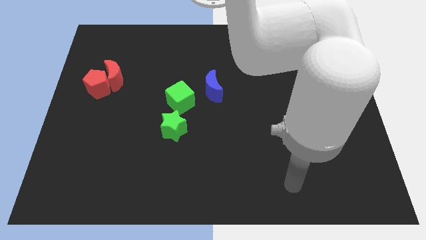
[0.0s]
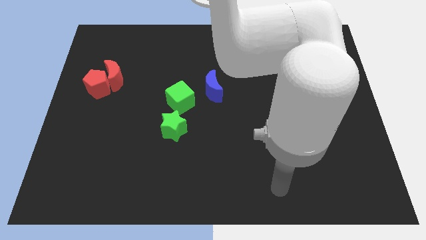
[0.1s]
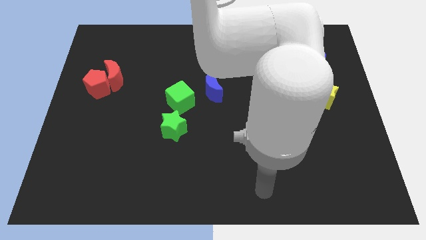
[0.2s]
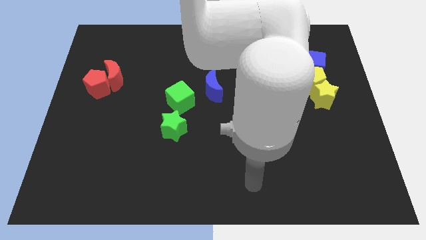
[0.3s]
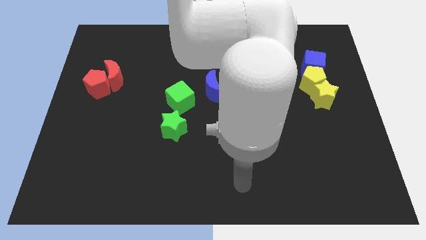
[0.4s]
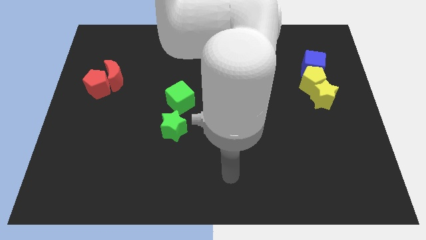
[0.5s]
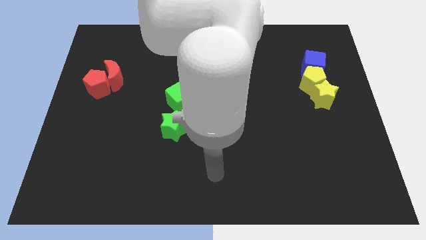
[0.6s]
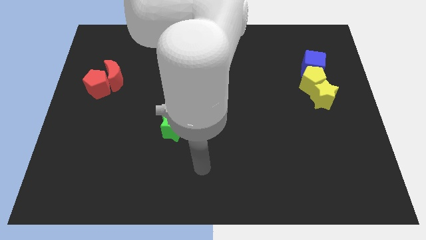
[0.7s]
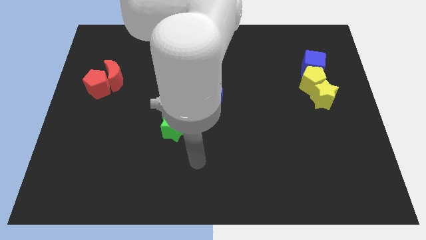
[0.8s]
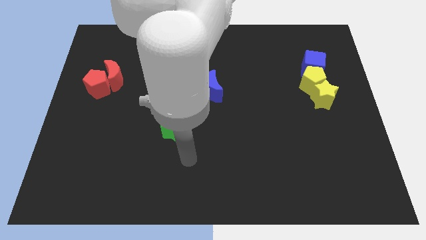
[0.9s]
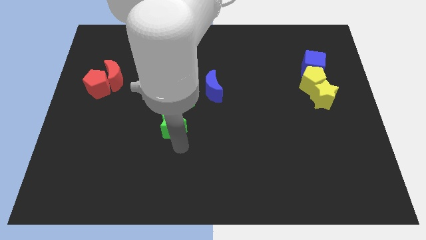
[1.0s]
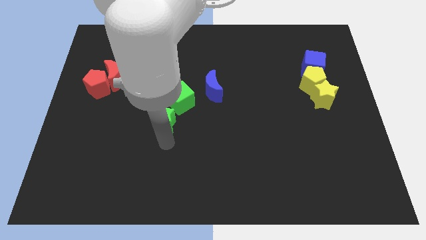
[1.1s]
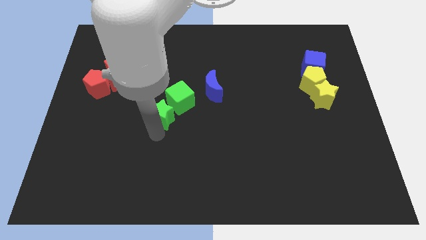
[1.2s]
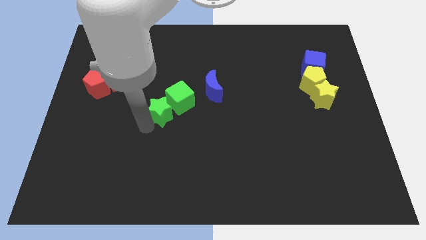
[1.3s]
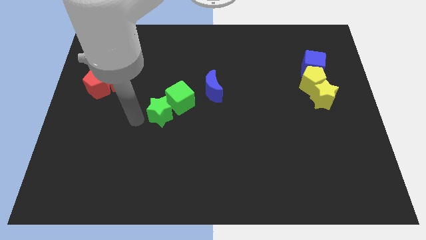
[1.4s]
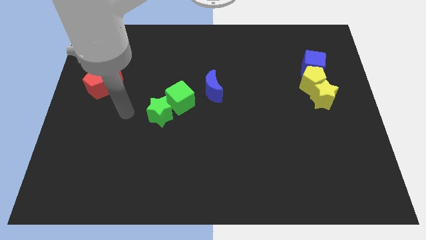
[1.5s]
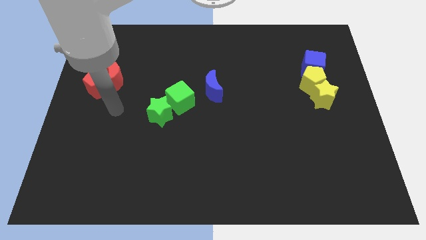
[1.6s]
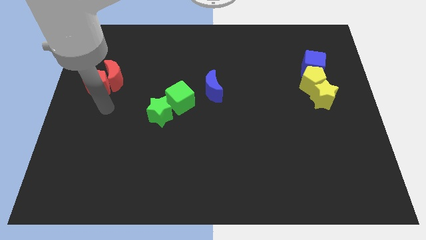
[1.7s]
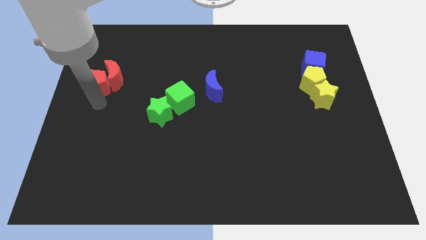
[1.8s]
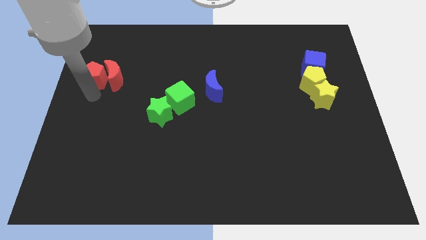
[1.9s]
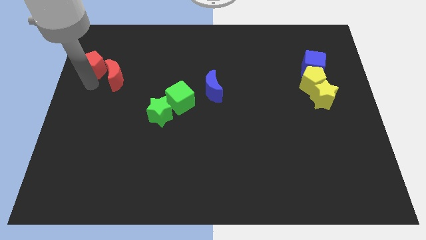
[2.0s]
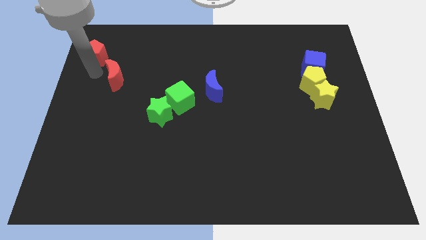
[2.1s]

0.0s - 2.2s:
separate the red moon from the red pentagon

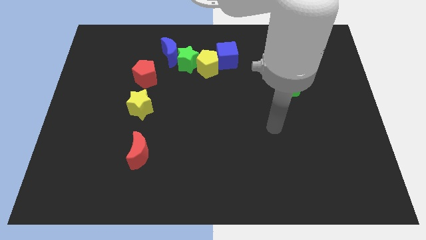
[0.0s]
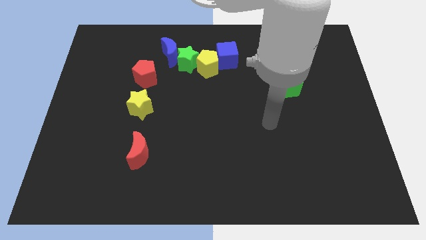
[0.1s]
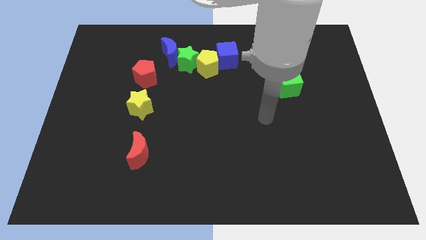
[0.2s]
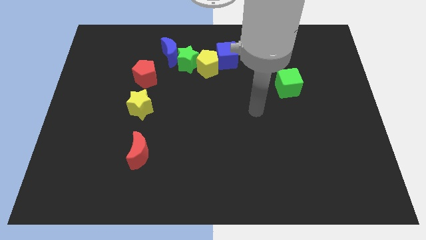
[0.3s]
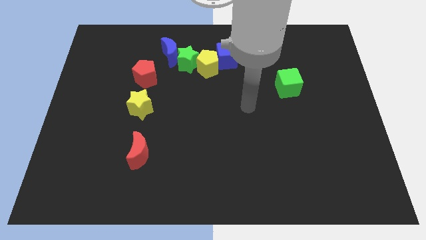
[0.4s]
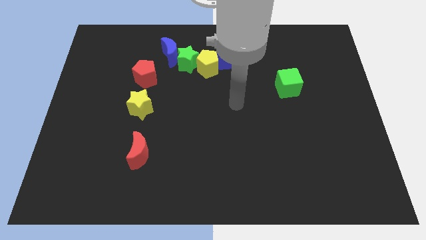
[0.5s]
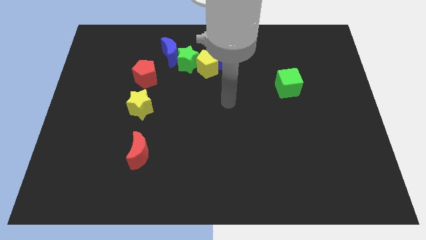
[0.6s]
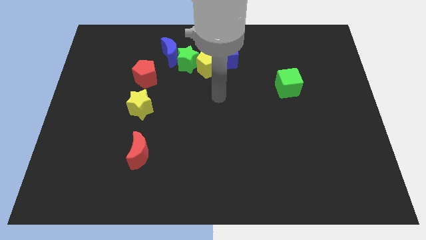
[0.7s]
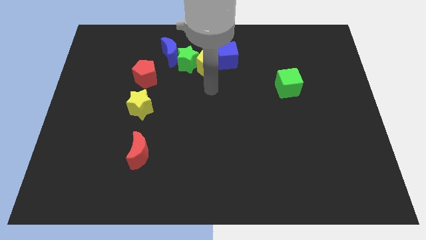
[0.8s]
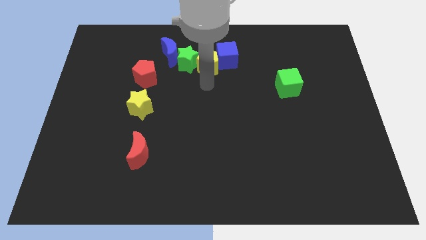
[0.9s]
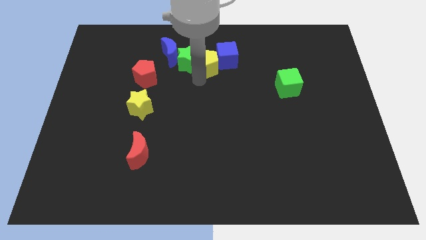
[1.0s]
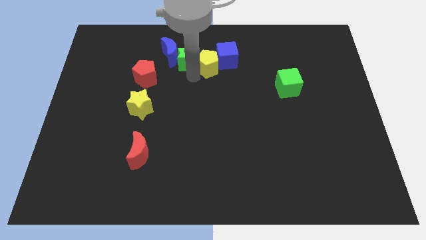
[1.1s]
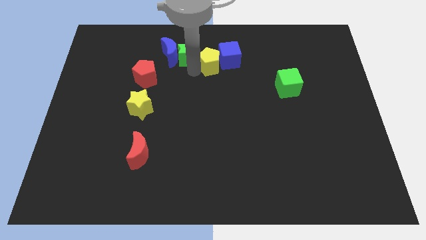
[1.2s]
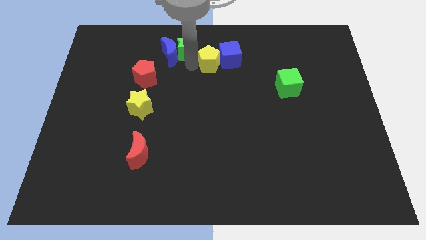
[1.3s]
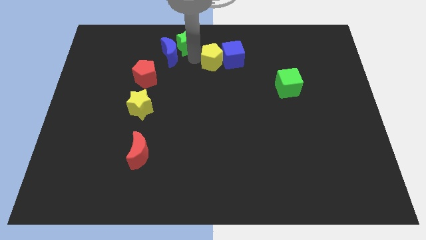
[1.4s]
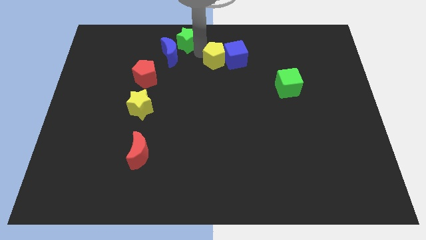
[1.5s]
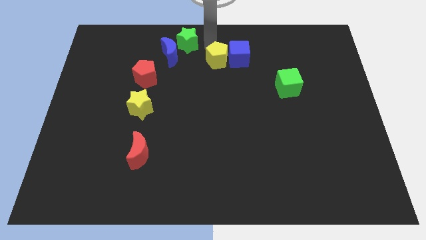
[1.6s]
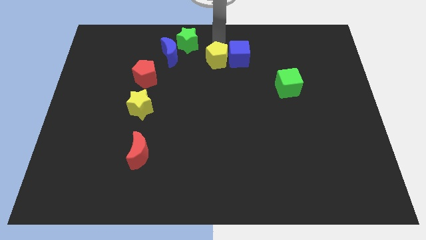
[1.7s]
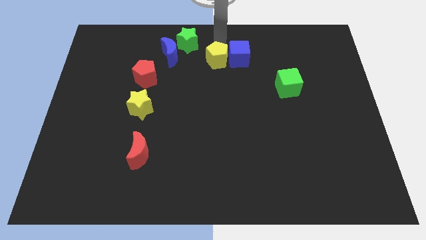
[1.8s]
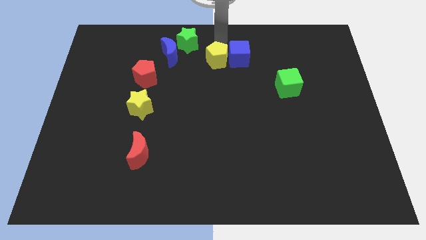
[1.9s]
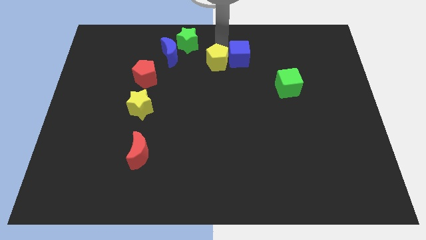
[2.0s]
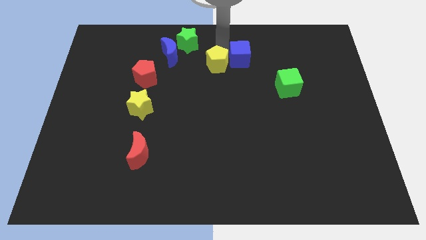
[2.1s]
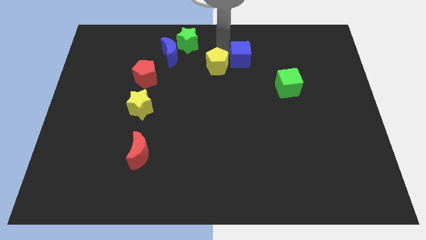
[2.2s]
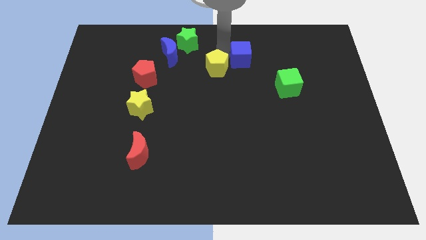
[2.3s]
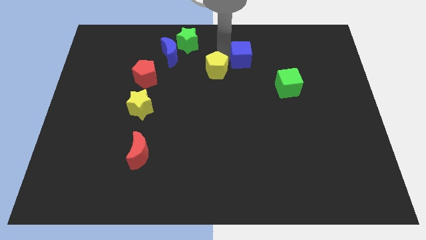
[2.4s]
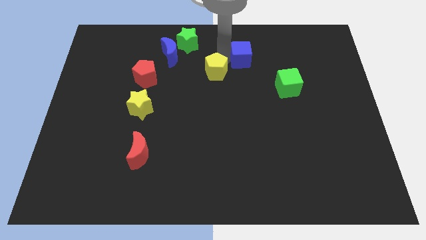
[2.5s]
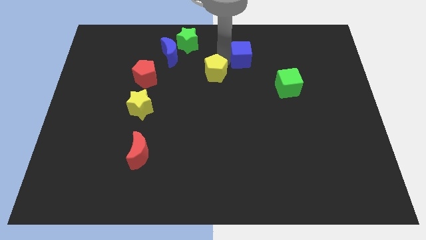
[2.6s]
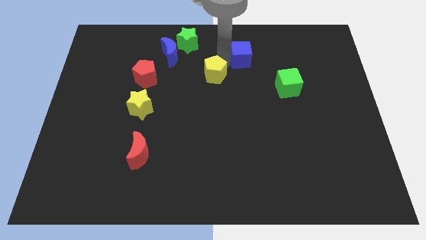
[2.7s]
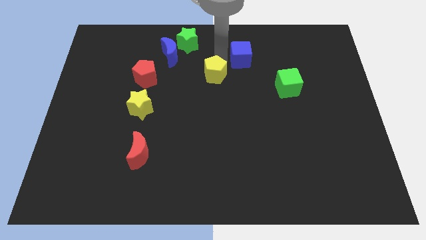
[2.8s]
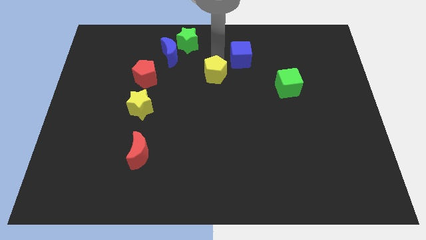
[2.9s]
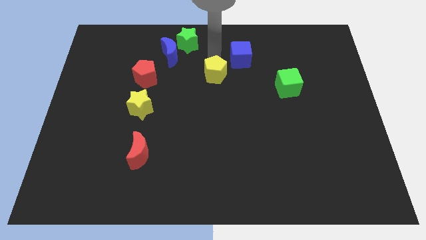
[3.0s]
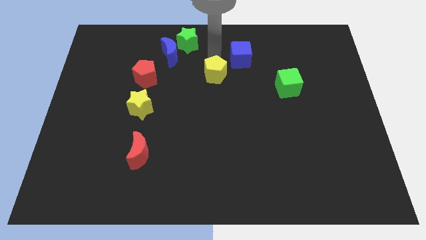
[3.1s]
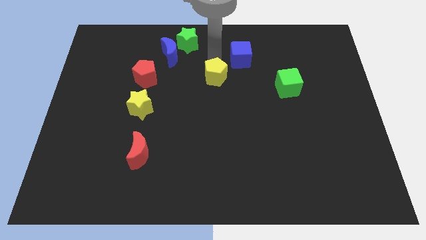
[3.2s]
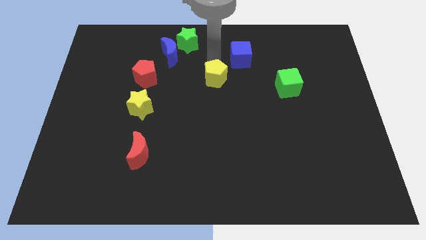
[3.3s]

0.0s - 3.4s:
pull the yellow pentagon apart from the blue cube and green star

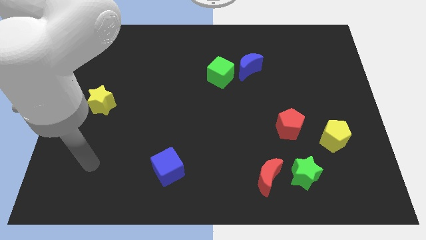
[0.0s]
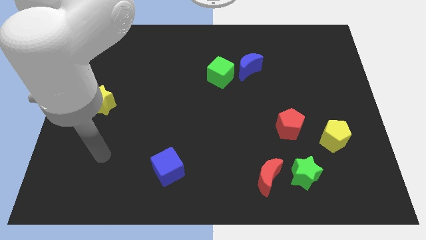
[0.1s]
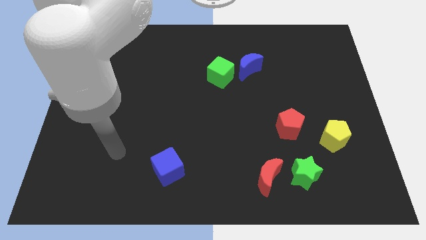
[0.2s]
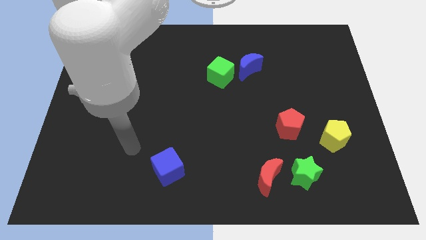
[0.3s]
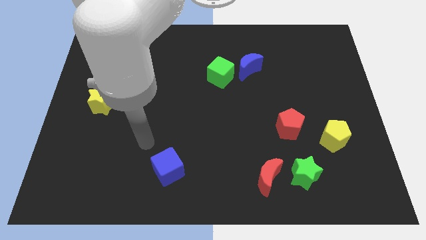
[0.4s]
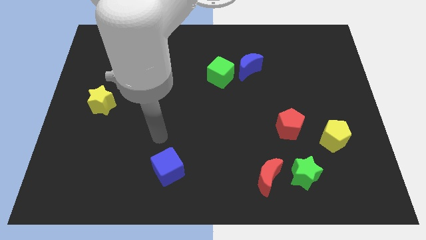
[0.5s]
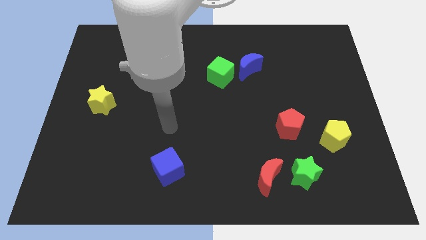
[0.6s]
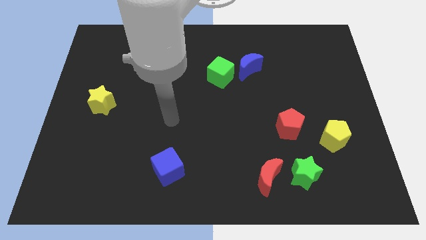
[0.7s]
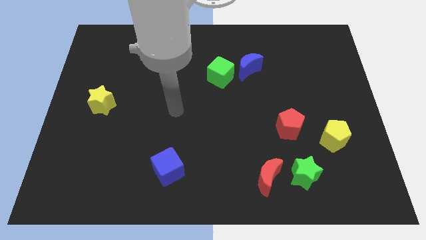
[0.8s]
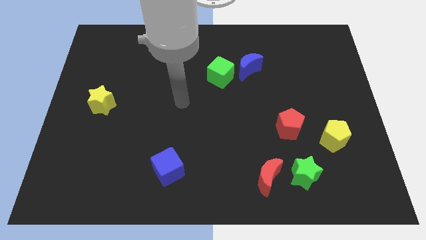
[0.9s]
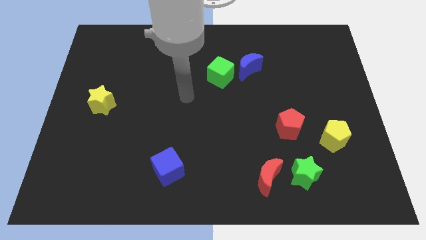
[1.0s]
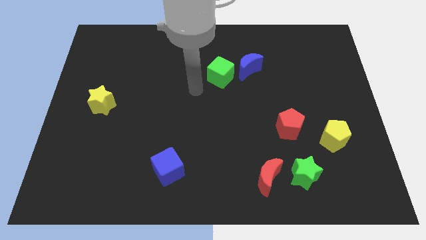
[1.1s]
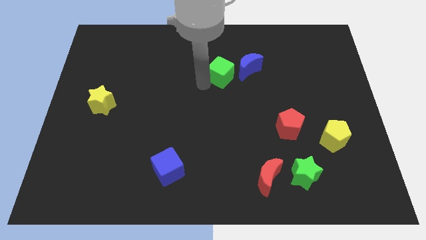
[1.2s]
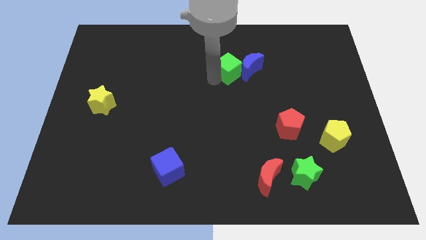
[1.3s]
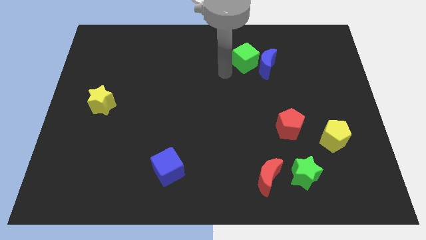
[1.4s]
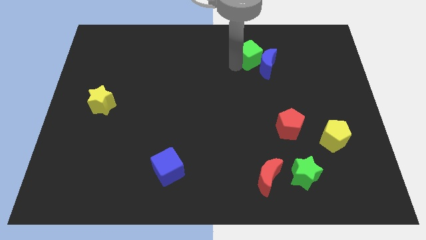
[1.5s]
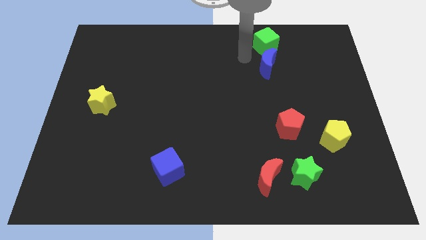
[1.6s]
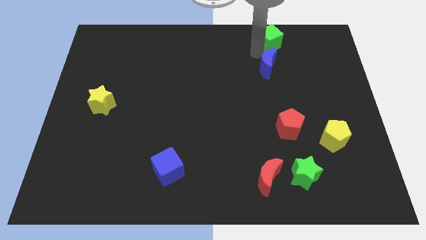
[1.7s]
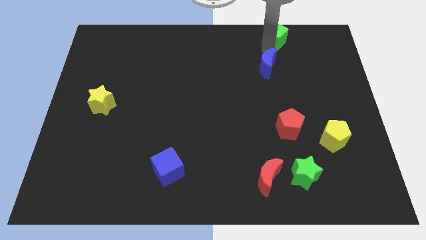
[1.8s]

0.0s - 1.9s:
pull the blue moon apart from the green cube

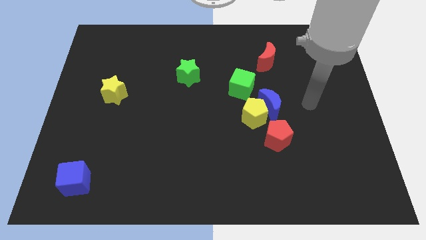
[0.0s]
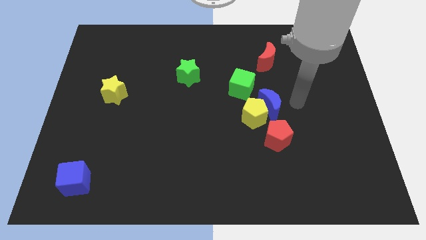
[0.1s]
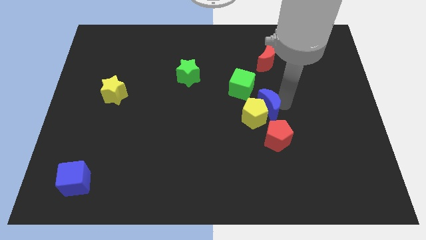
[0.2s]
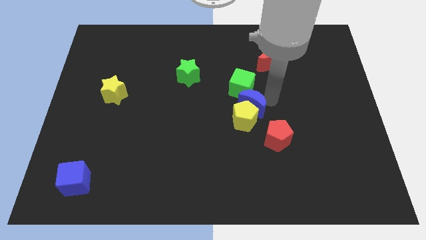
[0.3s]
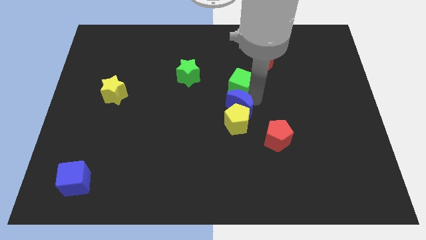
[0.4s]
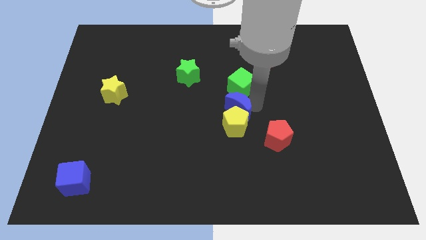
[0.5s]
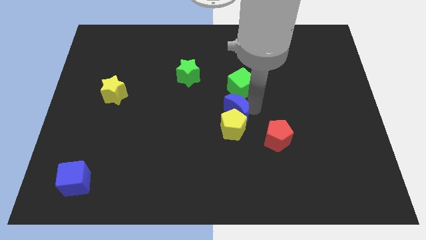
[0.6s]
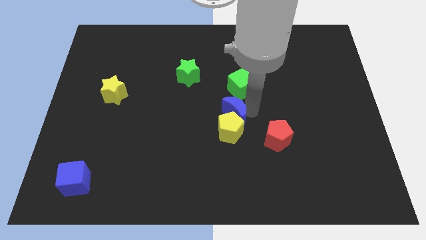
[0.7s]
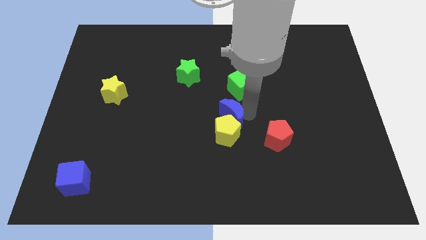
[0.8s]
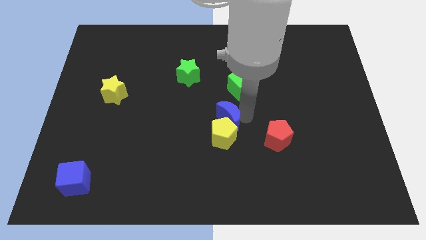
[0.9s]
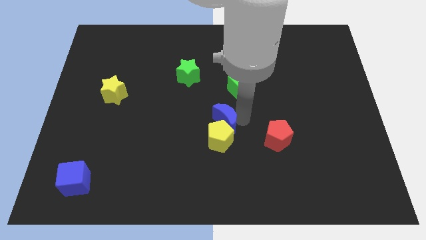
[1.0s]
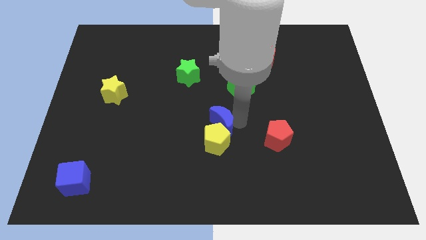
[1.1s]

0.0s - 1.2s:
separate the yellow pentagon from the blue moon, red pentagon, and green cube

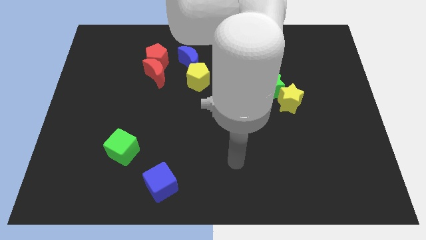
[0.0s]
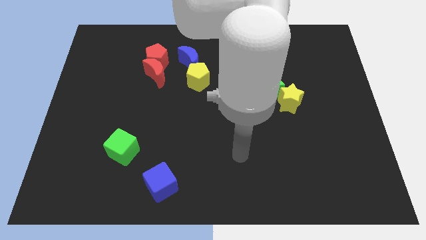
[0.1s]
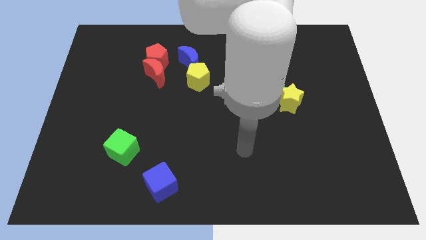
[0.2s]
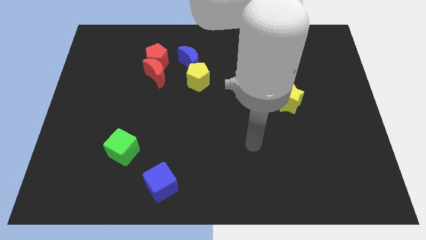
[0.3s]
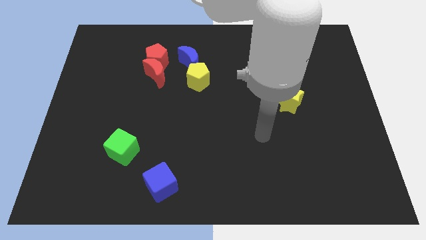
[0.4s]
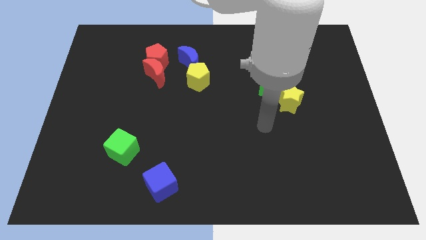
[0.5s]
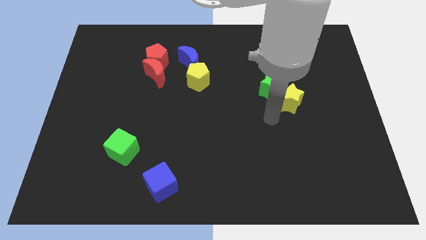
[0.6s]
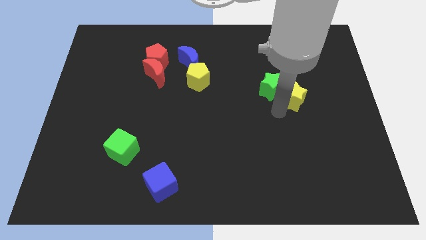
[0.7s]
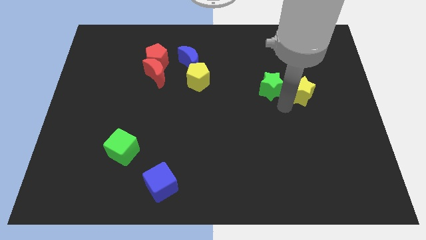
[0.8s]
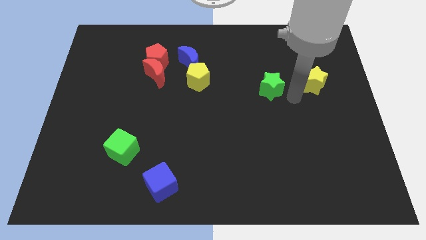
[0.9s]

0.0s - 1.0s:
move the green star away from the yellow star
